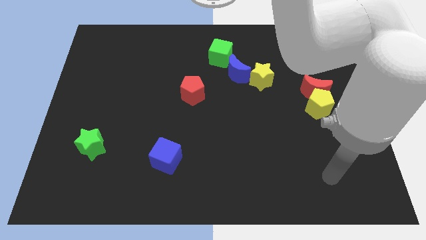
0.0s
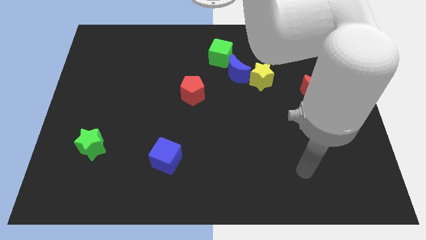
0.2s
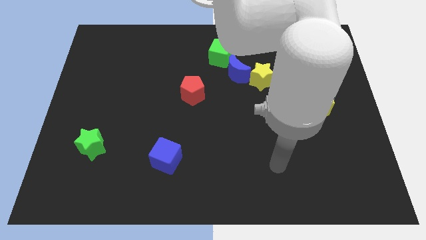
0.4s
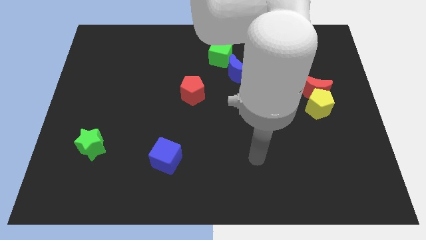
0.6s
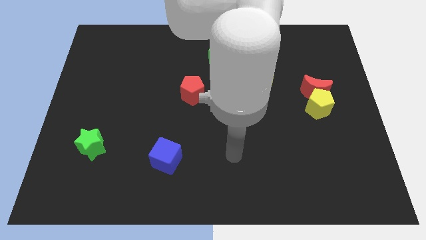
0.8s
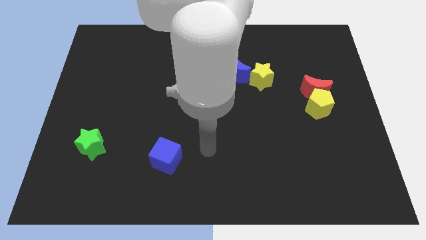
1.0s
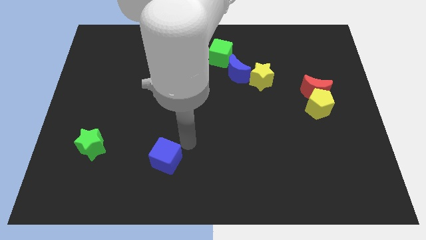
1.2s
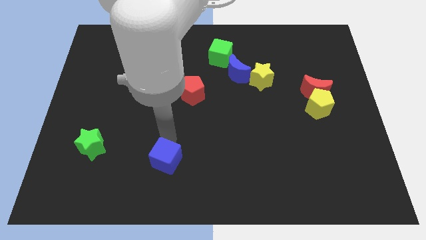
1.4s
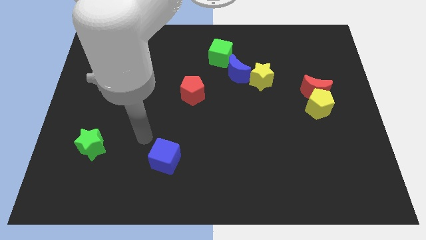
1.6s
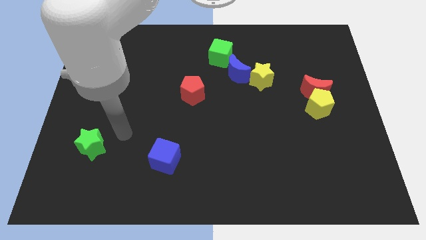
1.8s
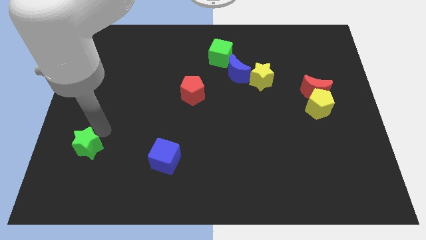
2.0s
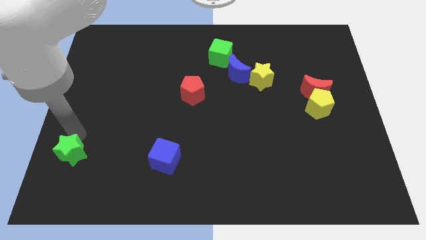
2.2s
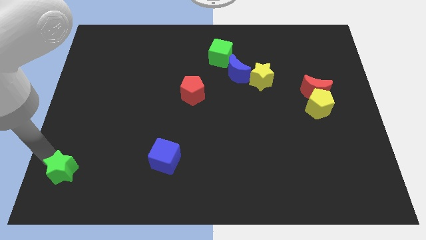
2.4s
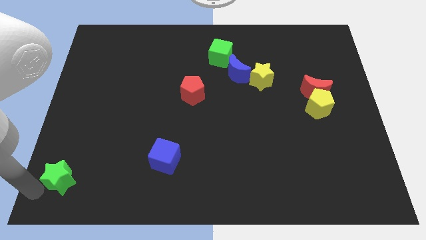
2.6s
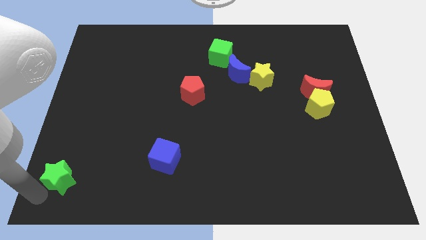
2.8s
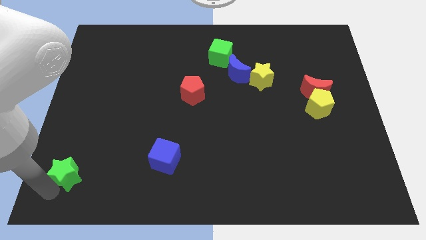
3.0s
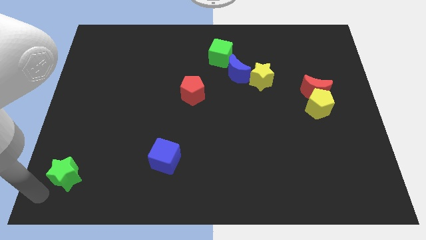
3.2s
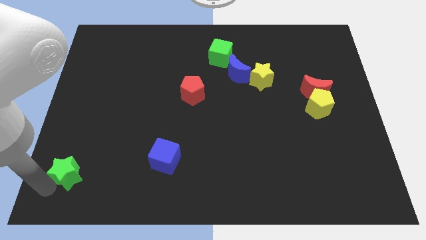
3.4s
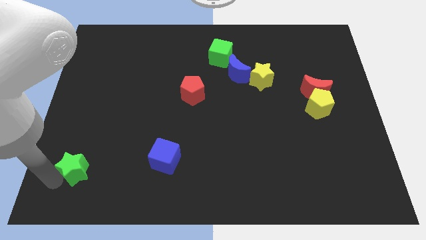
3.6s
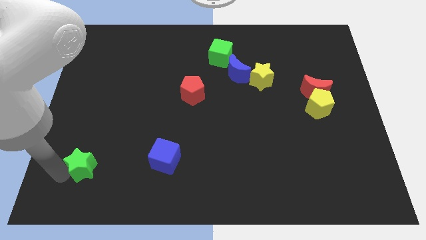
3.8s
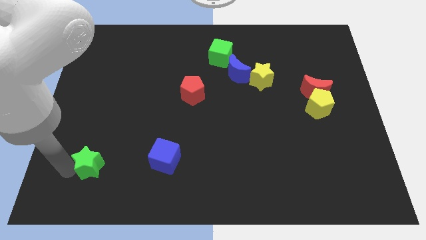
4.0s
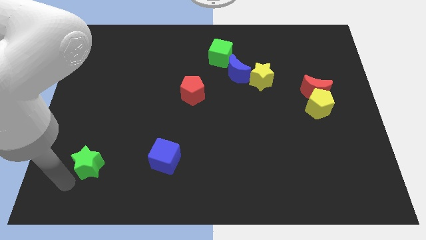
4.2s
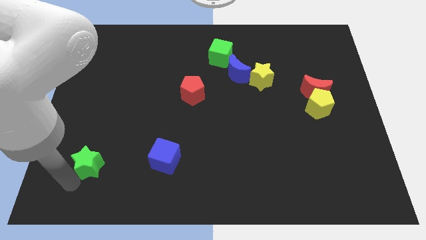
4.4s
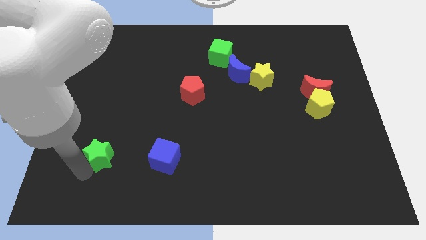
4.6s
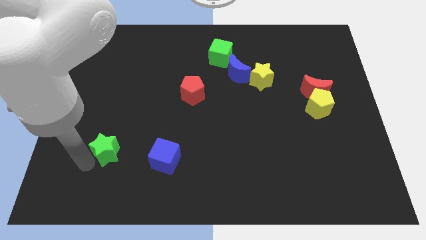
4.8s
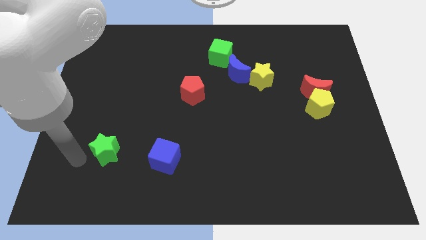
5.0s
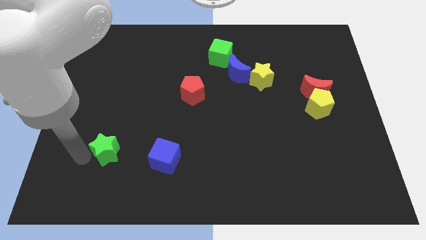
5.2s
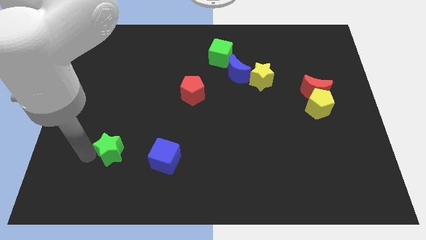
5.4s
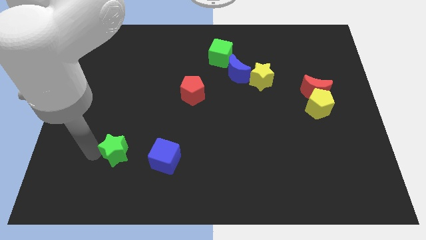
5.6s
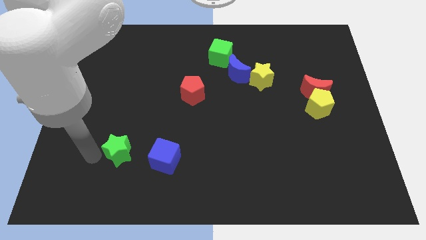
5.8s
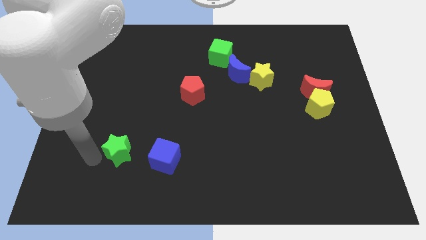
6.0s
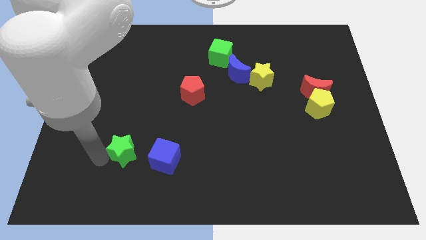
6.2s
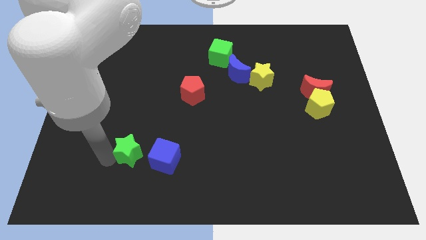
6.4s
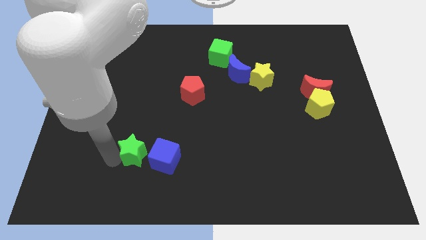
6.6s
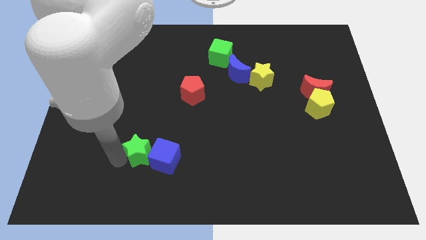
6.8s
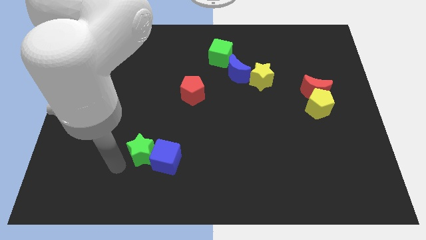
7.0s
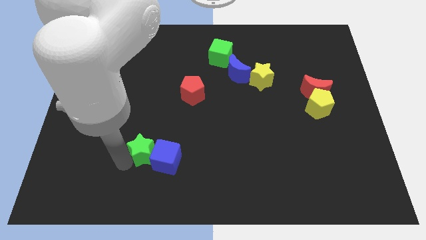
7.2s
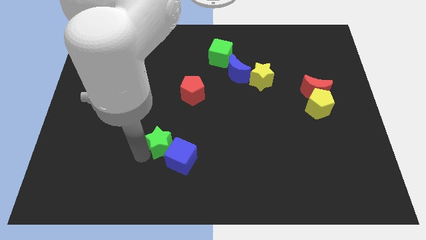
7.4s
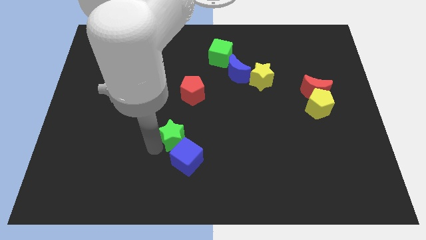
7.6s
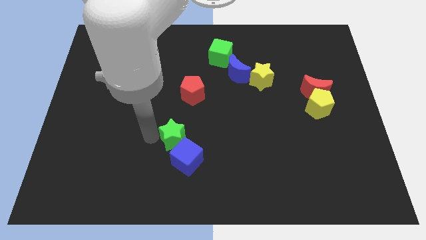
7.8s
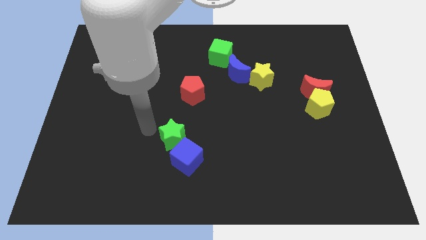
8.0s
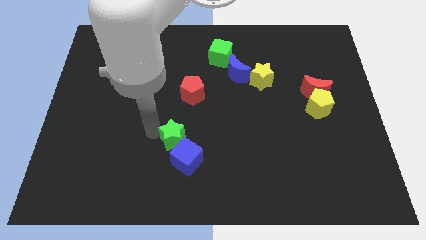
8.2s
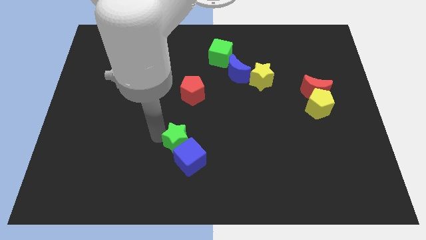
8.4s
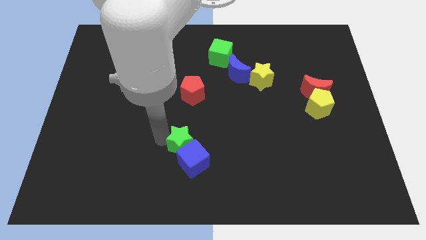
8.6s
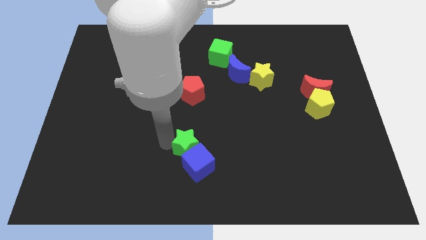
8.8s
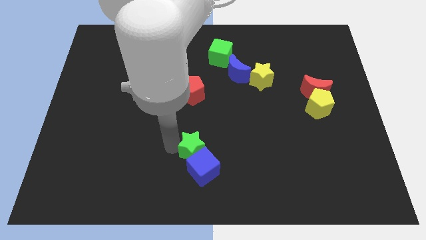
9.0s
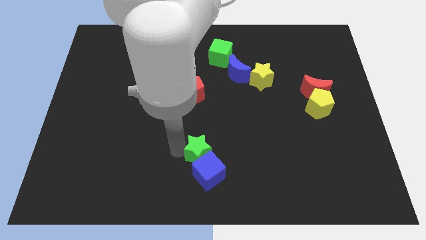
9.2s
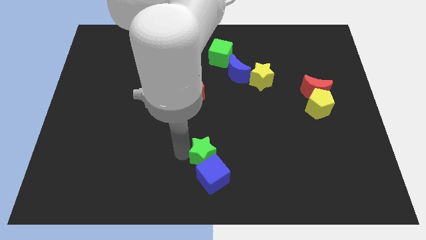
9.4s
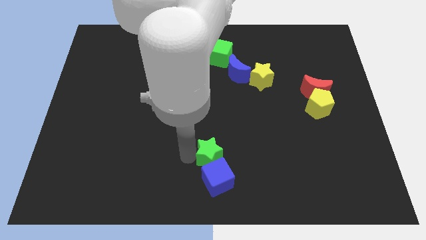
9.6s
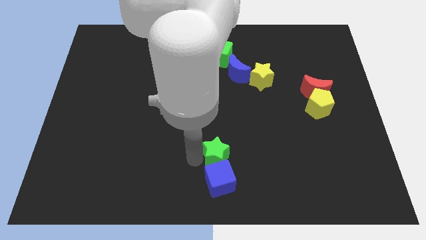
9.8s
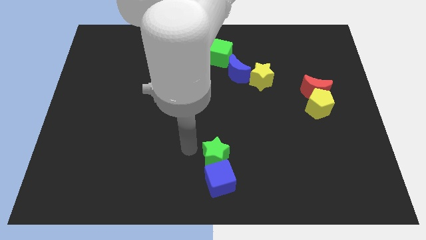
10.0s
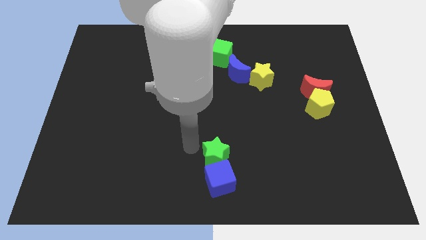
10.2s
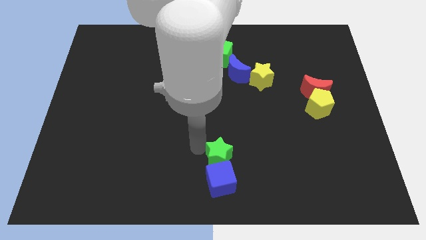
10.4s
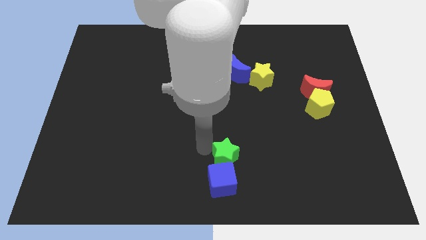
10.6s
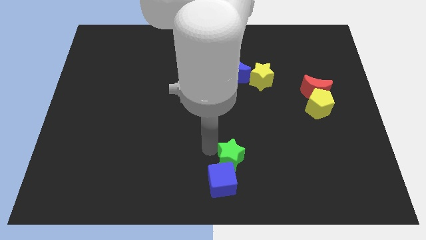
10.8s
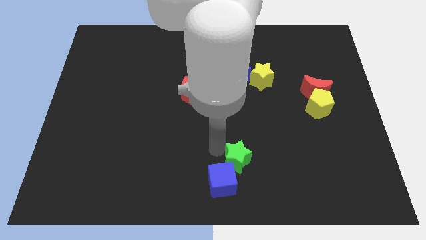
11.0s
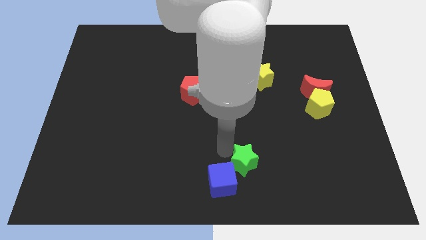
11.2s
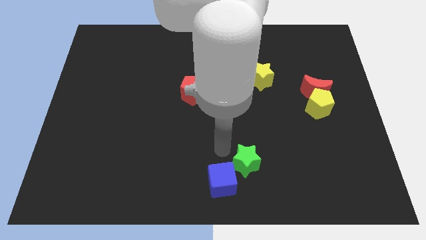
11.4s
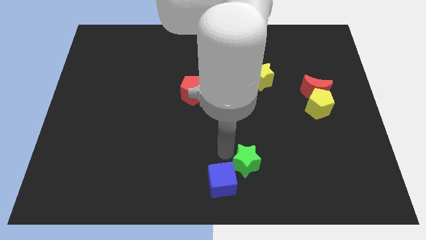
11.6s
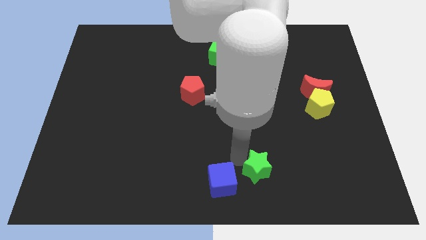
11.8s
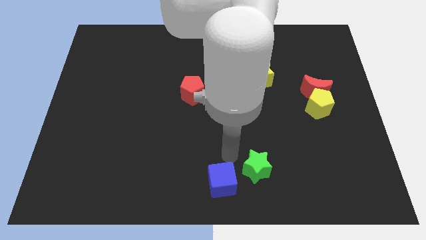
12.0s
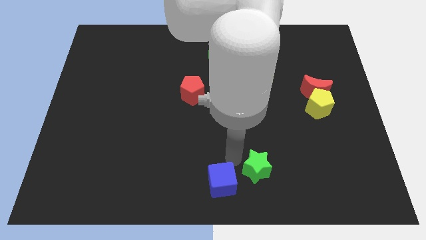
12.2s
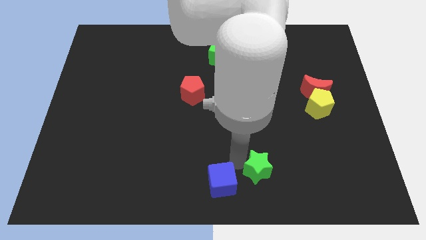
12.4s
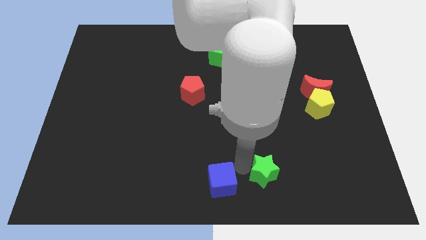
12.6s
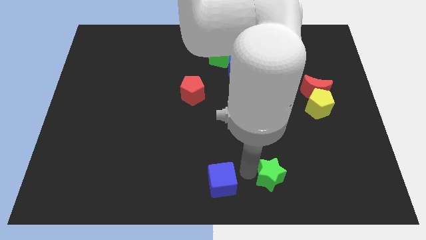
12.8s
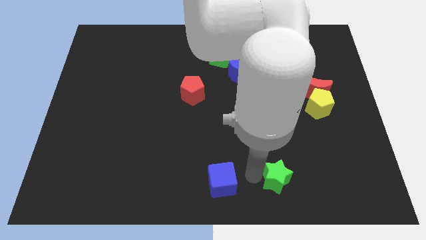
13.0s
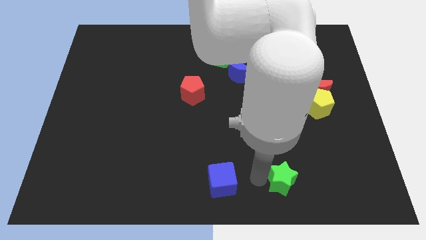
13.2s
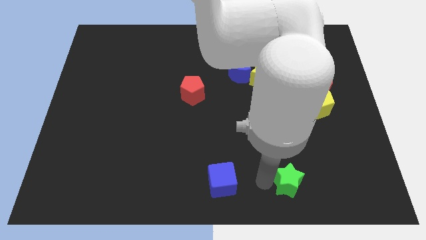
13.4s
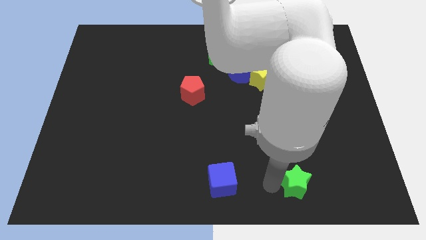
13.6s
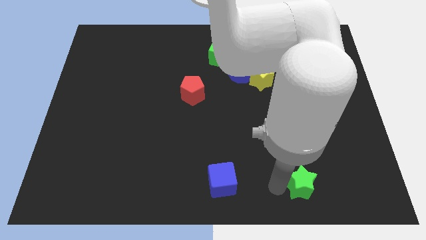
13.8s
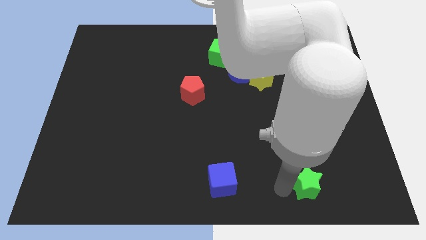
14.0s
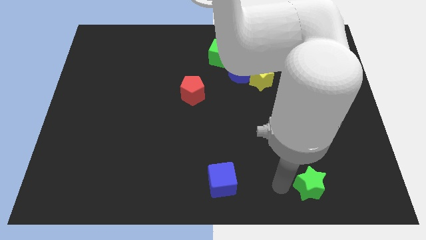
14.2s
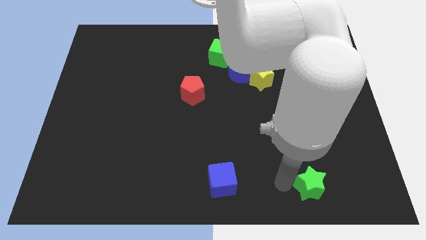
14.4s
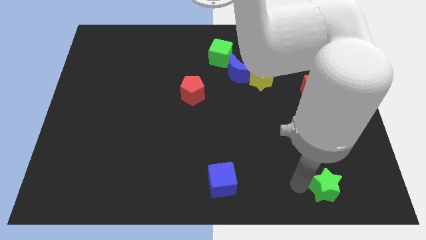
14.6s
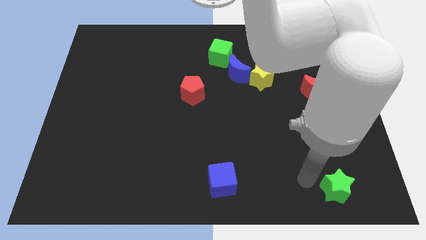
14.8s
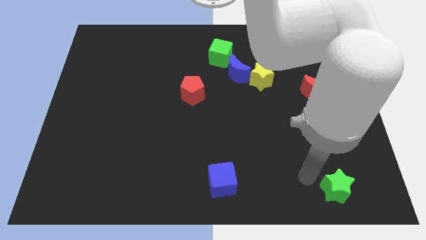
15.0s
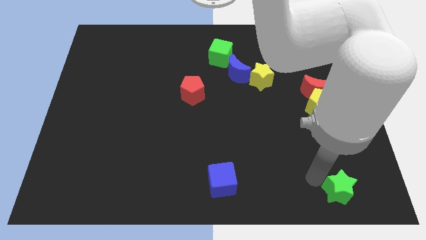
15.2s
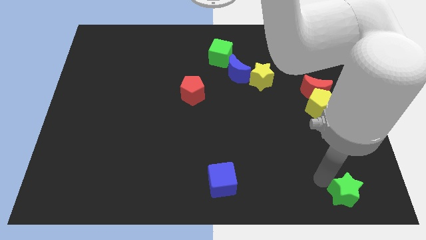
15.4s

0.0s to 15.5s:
move the green star to the bottom right
